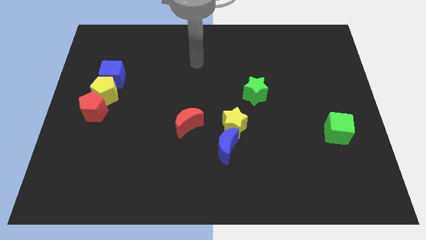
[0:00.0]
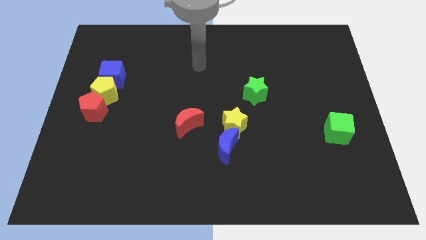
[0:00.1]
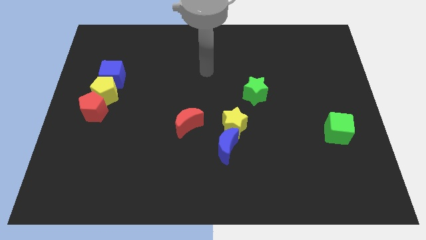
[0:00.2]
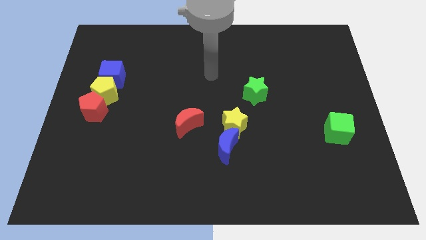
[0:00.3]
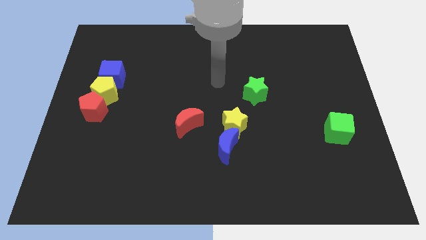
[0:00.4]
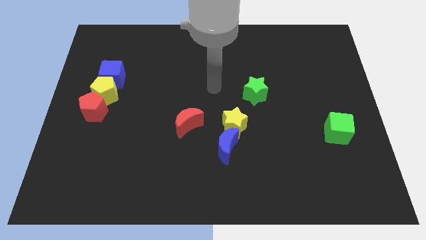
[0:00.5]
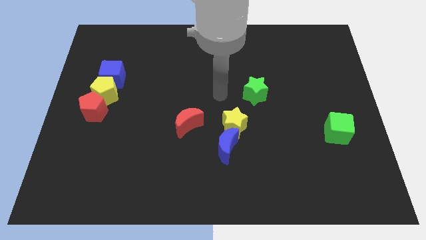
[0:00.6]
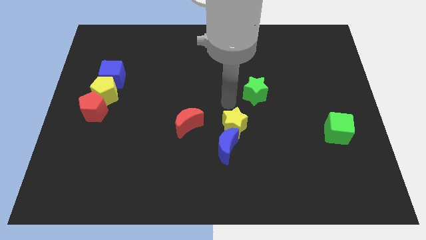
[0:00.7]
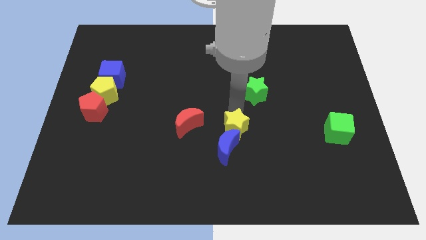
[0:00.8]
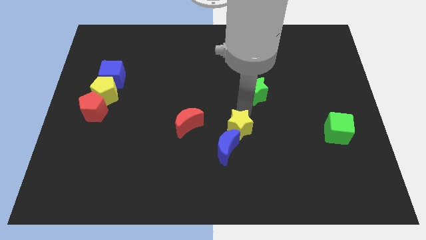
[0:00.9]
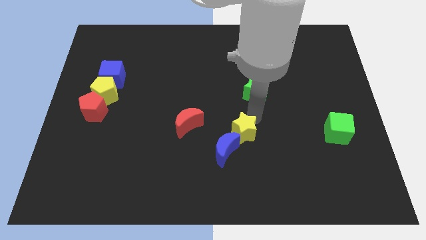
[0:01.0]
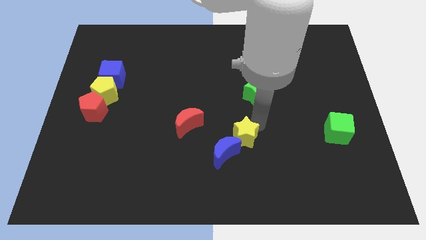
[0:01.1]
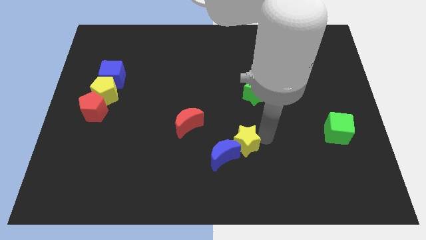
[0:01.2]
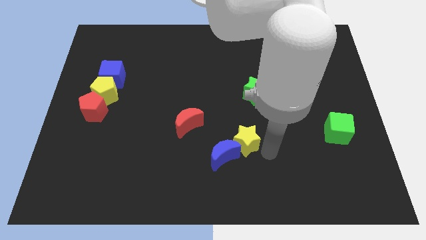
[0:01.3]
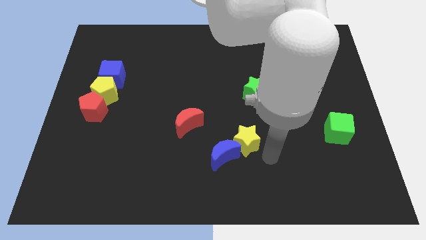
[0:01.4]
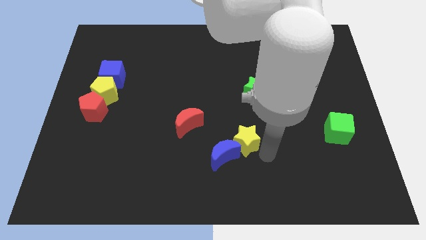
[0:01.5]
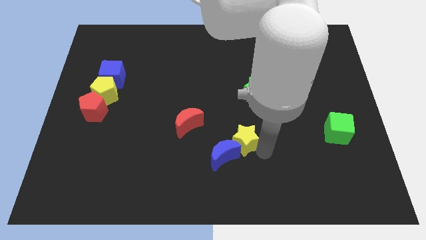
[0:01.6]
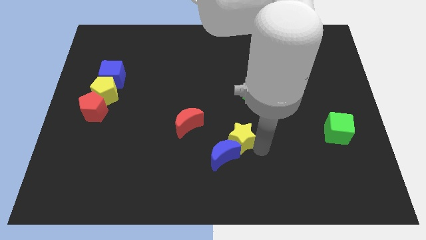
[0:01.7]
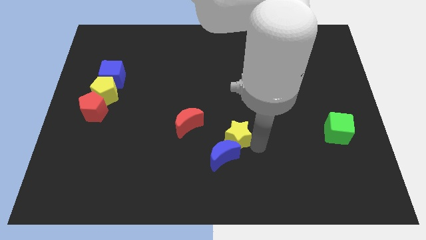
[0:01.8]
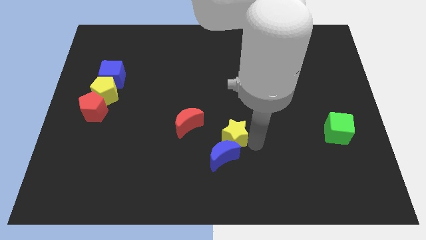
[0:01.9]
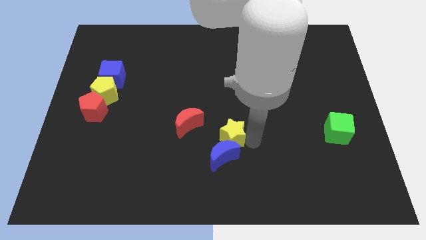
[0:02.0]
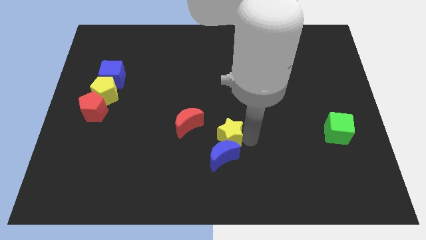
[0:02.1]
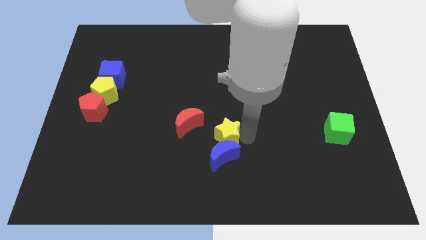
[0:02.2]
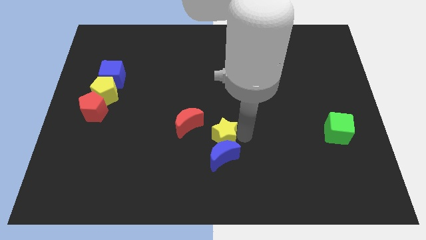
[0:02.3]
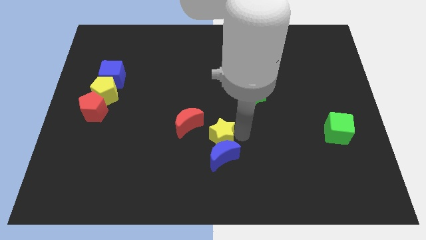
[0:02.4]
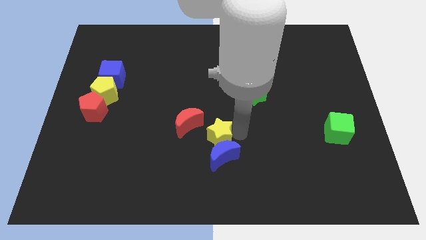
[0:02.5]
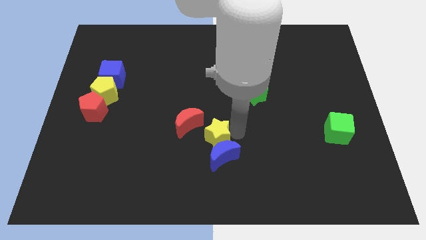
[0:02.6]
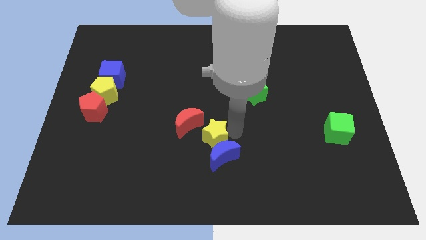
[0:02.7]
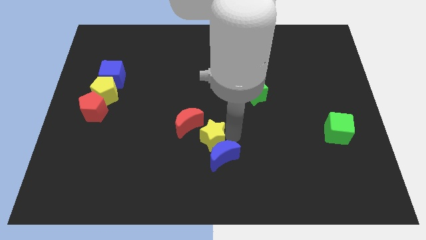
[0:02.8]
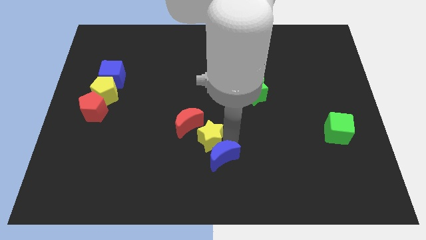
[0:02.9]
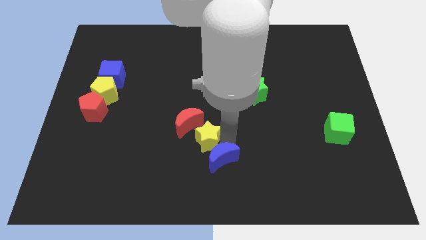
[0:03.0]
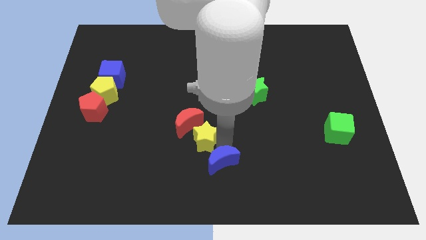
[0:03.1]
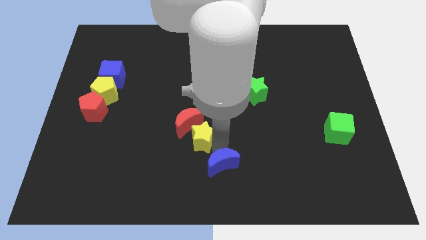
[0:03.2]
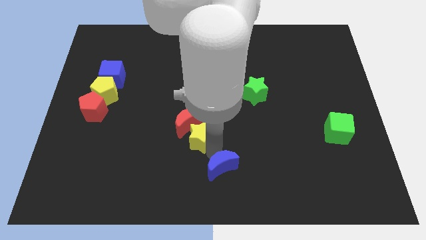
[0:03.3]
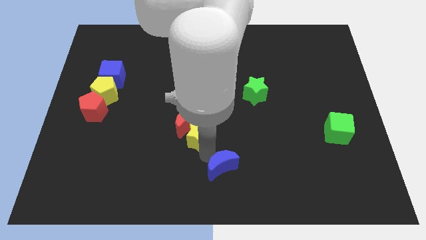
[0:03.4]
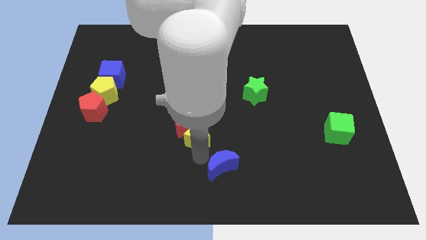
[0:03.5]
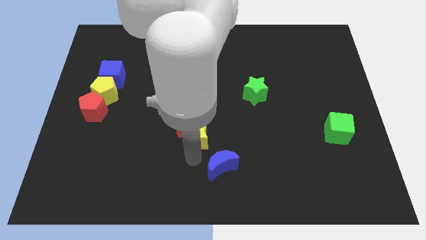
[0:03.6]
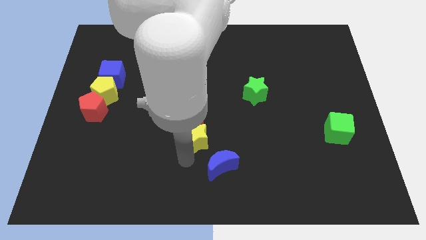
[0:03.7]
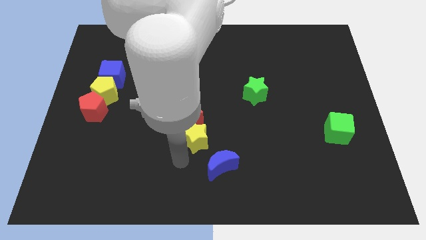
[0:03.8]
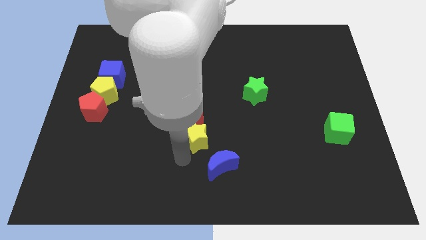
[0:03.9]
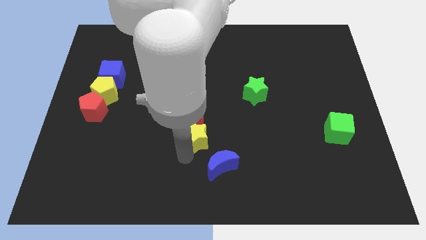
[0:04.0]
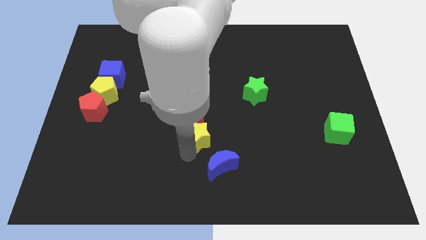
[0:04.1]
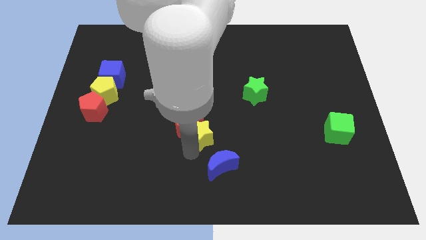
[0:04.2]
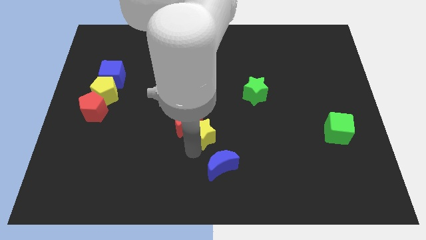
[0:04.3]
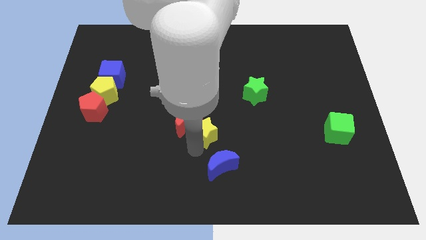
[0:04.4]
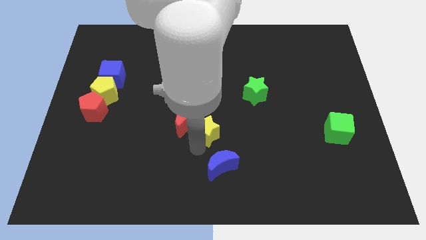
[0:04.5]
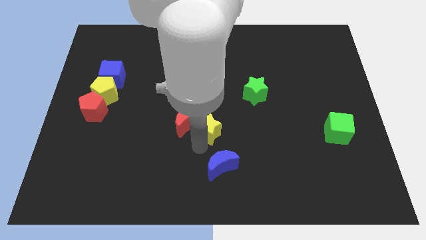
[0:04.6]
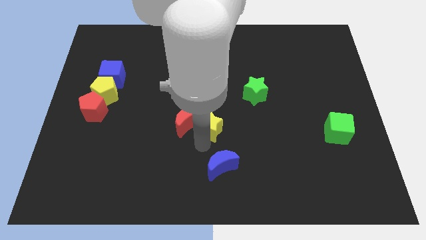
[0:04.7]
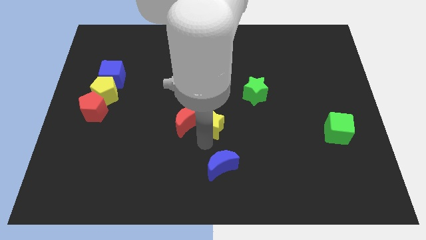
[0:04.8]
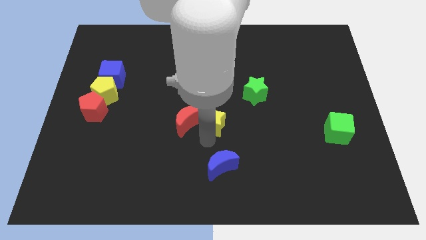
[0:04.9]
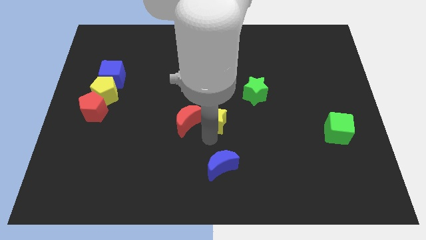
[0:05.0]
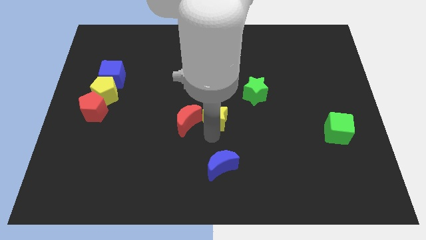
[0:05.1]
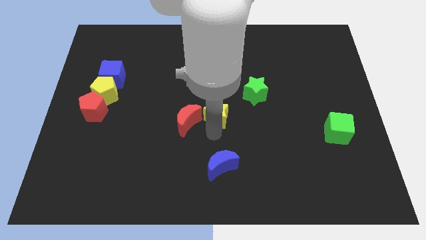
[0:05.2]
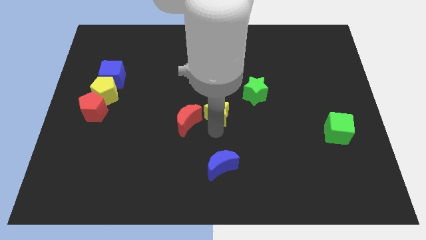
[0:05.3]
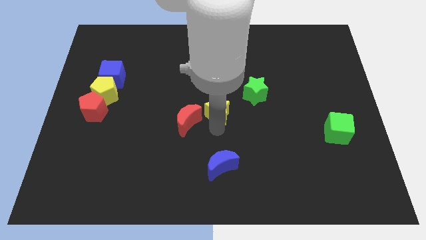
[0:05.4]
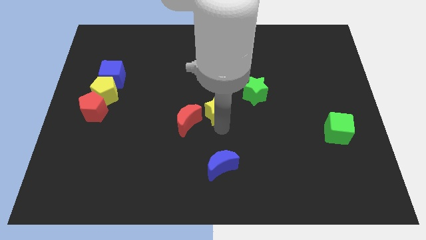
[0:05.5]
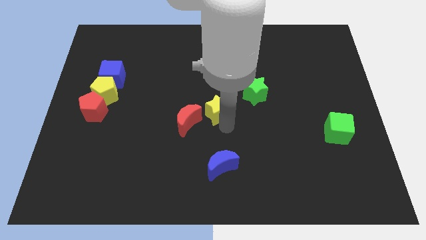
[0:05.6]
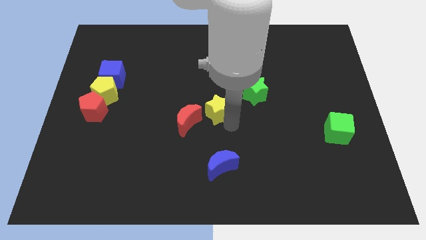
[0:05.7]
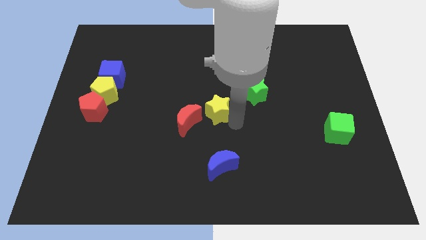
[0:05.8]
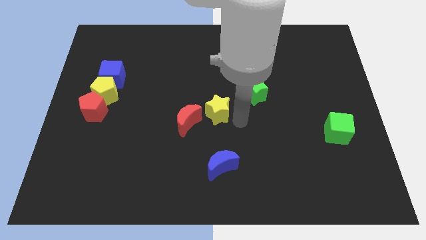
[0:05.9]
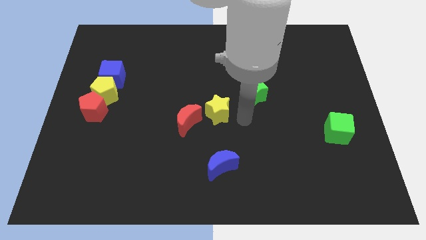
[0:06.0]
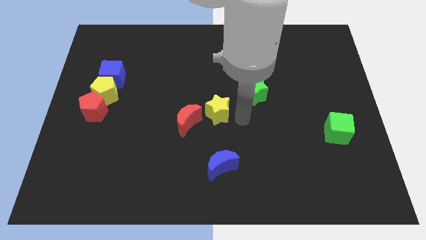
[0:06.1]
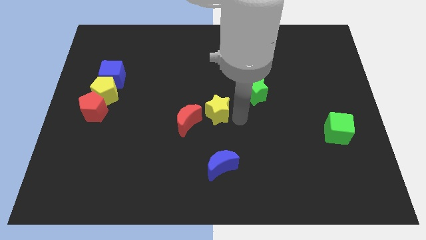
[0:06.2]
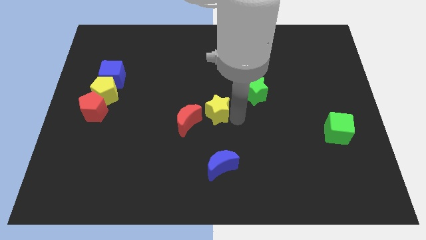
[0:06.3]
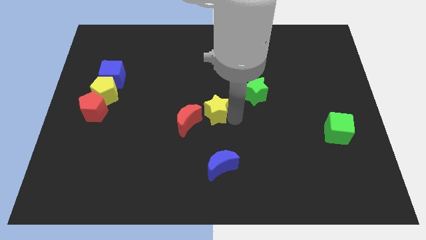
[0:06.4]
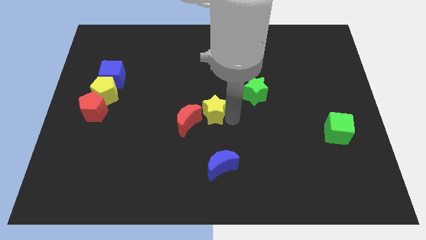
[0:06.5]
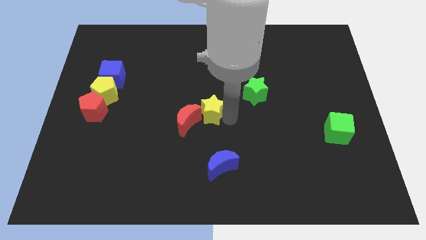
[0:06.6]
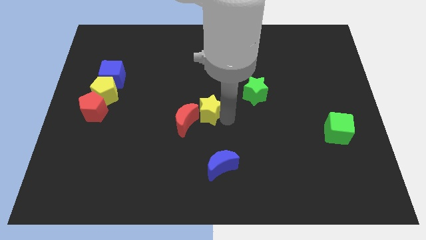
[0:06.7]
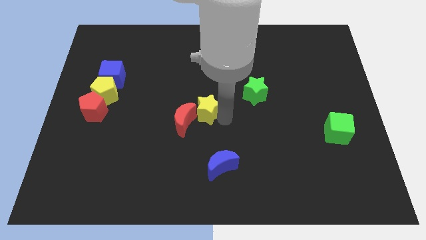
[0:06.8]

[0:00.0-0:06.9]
push the yellow star a little bit upwards and left diagonally

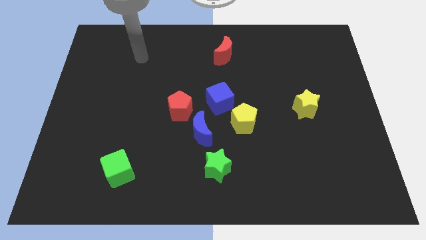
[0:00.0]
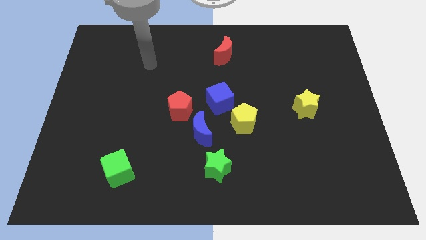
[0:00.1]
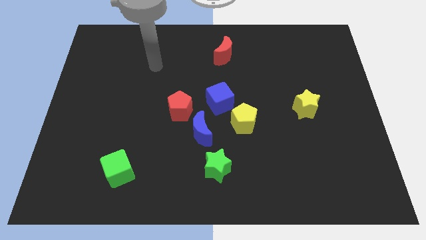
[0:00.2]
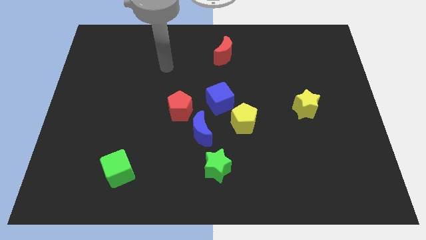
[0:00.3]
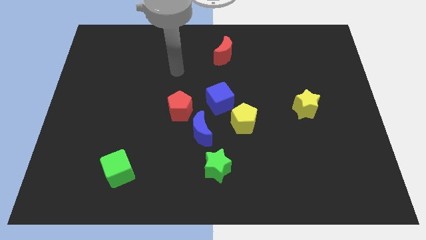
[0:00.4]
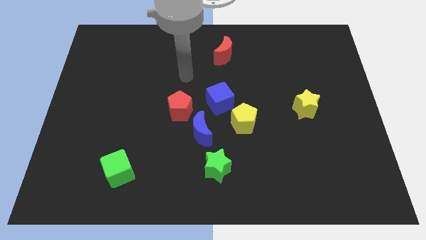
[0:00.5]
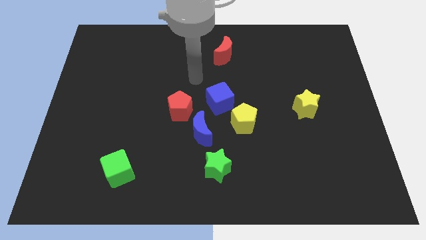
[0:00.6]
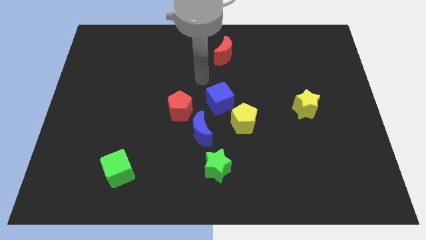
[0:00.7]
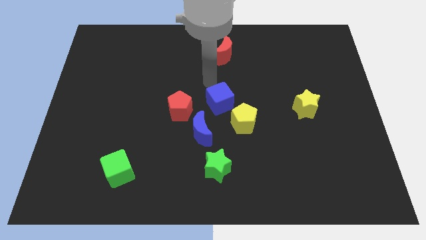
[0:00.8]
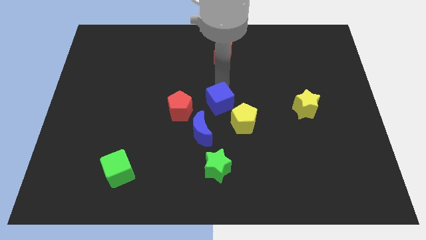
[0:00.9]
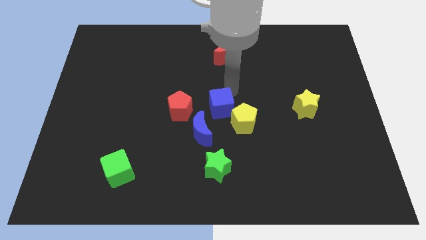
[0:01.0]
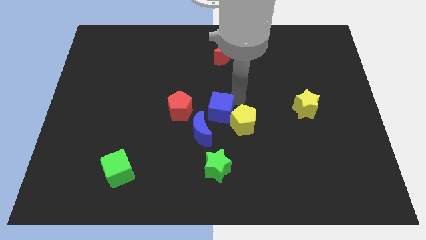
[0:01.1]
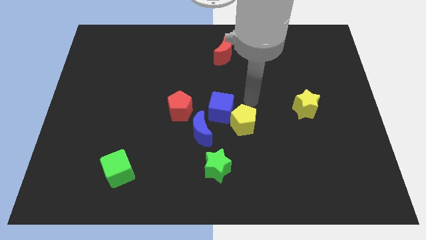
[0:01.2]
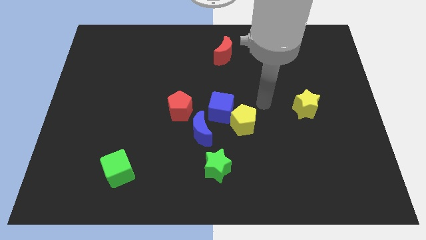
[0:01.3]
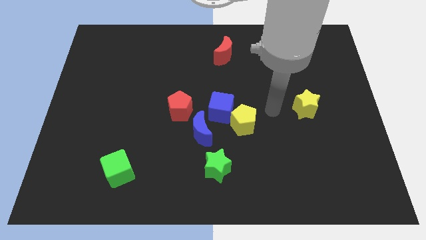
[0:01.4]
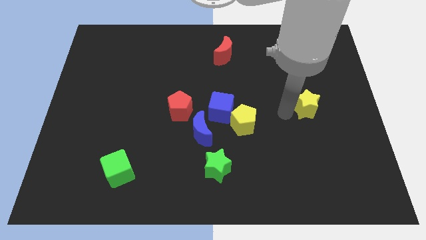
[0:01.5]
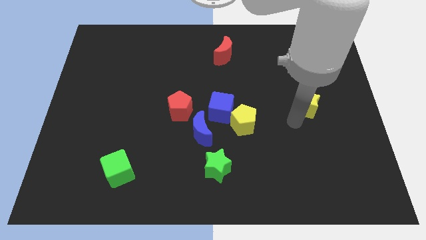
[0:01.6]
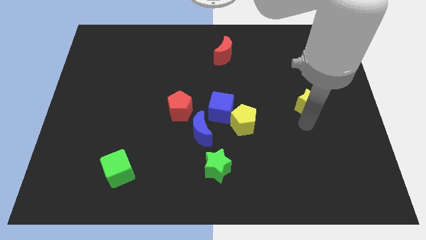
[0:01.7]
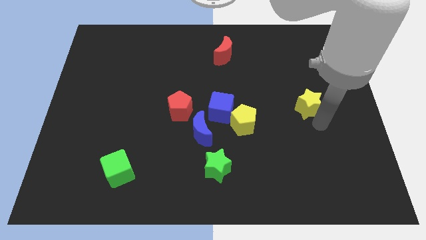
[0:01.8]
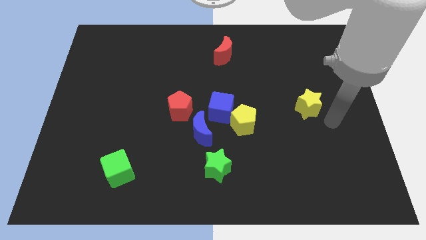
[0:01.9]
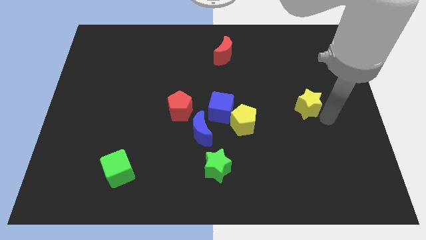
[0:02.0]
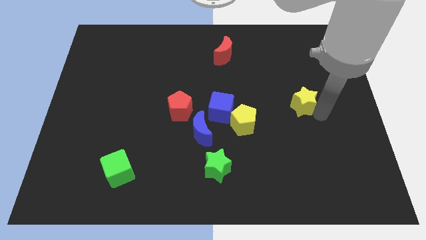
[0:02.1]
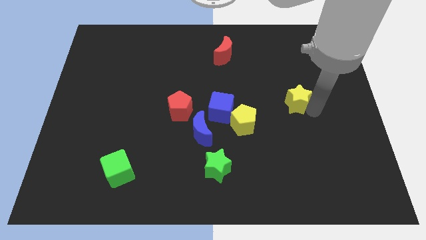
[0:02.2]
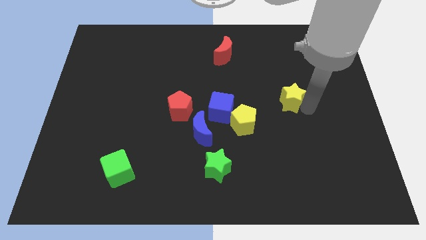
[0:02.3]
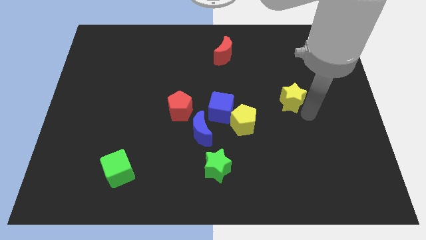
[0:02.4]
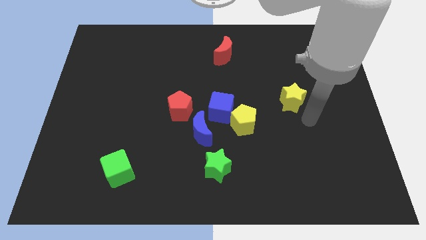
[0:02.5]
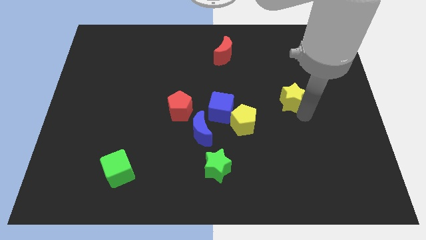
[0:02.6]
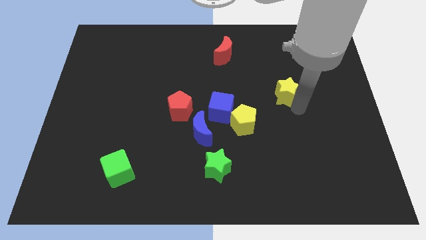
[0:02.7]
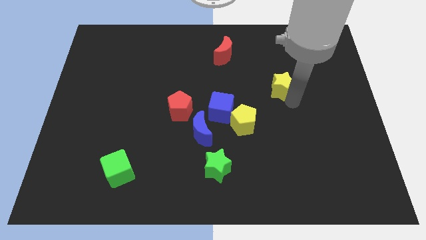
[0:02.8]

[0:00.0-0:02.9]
move the yellow star diagonally up and to the left somewhat
